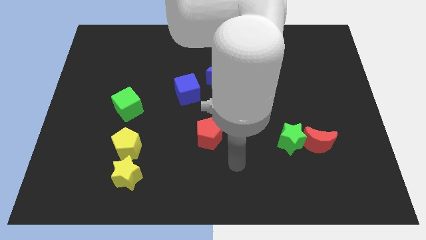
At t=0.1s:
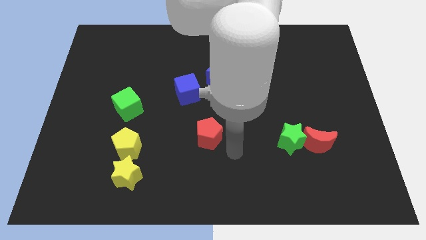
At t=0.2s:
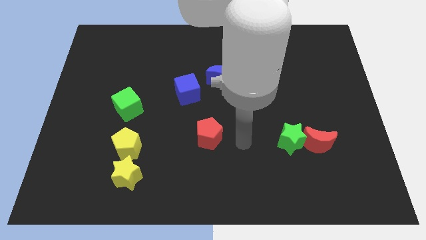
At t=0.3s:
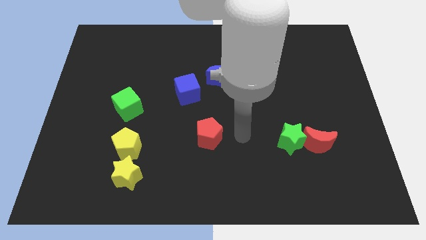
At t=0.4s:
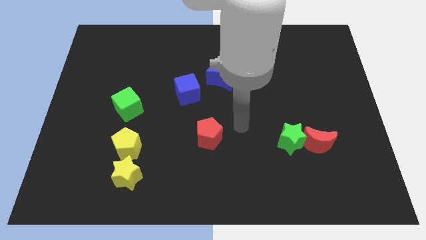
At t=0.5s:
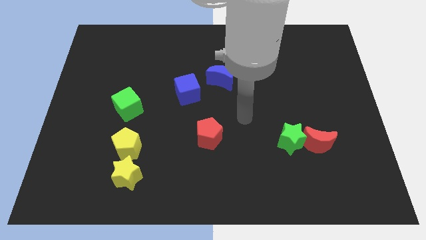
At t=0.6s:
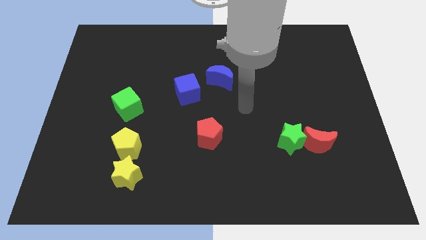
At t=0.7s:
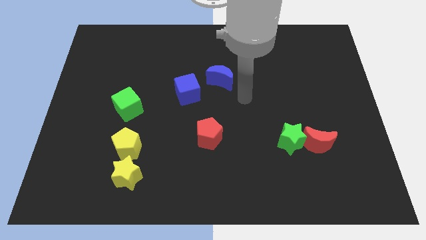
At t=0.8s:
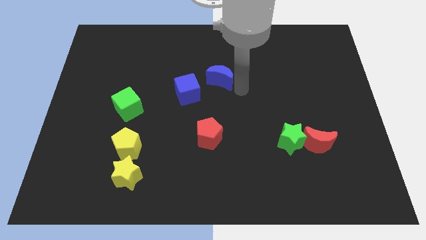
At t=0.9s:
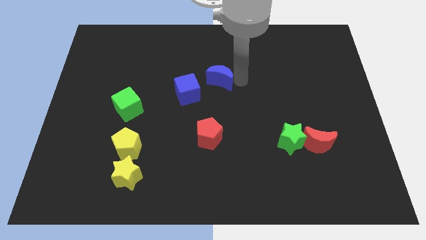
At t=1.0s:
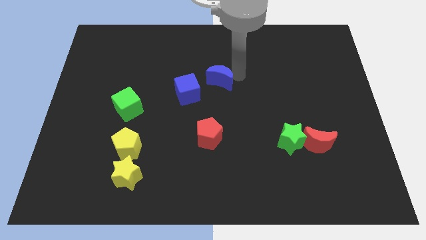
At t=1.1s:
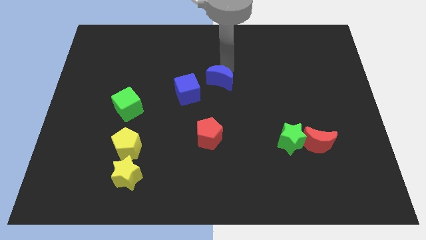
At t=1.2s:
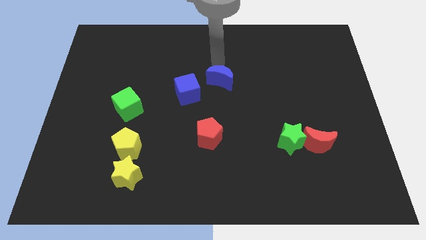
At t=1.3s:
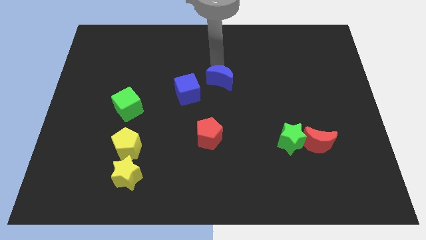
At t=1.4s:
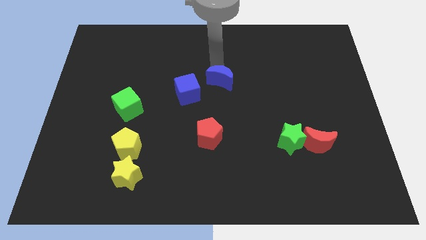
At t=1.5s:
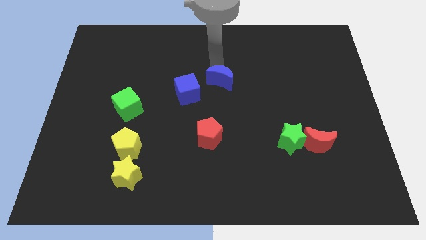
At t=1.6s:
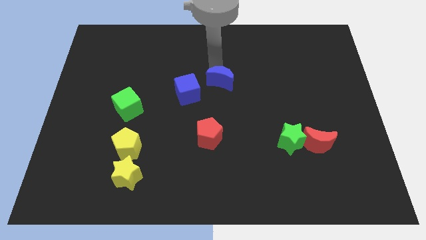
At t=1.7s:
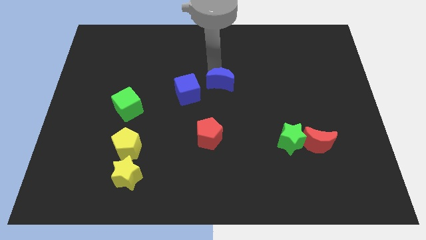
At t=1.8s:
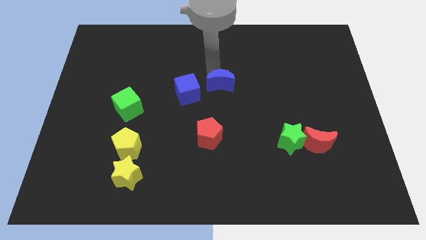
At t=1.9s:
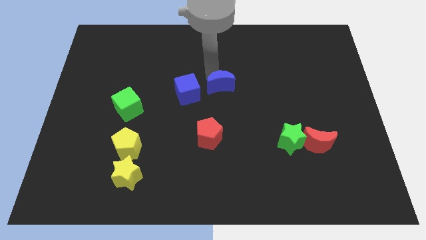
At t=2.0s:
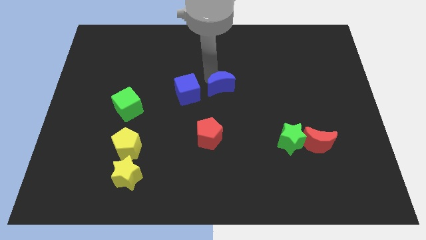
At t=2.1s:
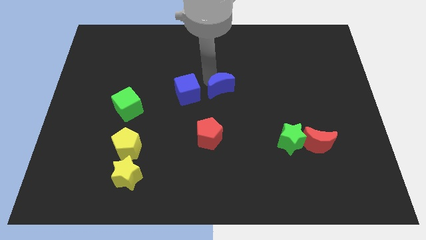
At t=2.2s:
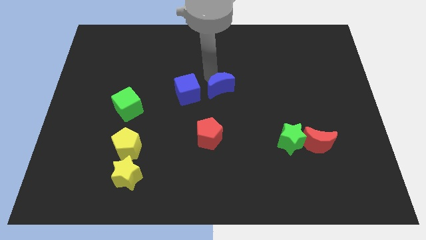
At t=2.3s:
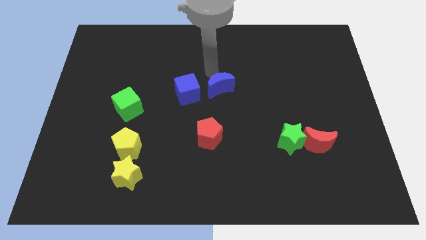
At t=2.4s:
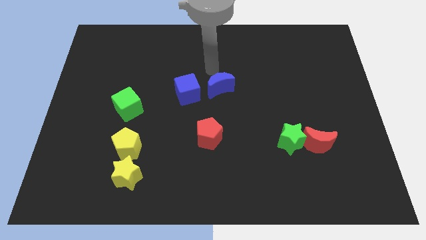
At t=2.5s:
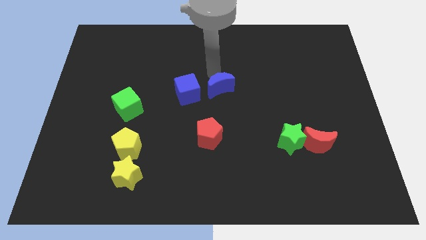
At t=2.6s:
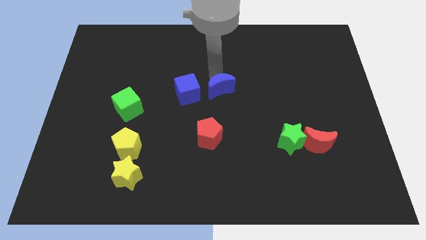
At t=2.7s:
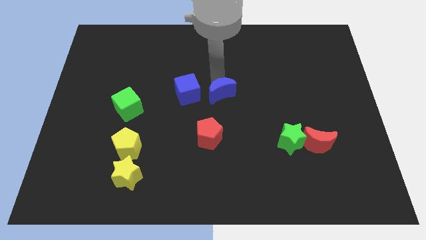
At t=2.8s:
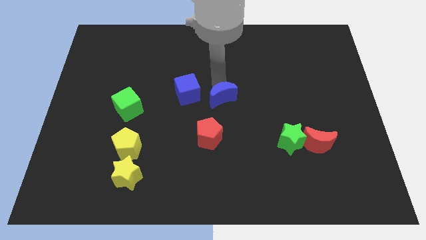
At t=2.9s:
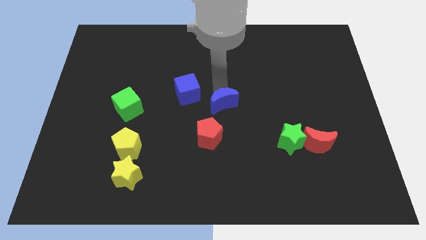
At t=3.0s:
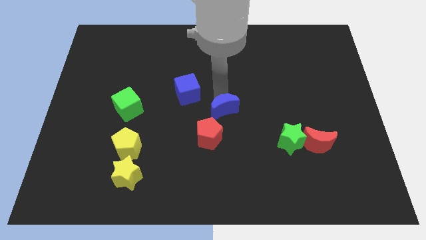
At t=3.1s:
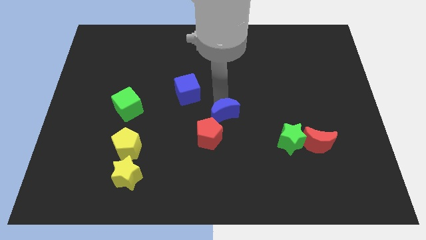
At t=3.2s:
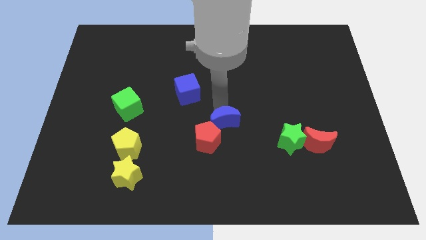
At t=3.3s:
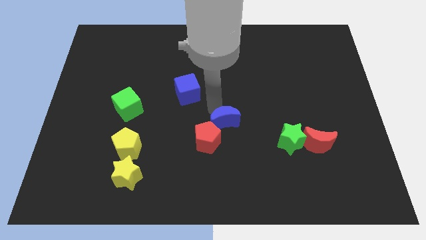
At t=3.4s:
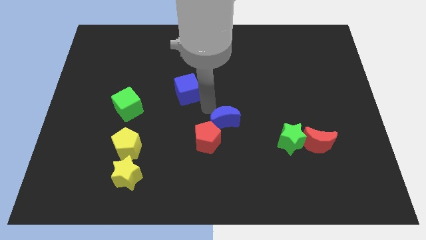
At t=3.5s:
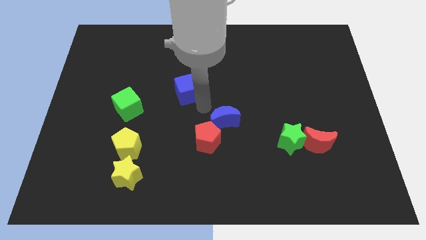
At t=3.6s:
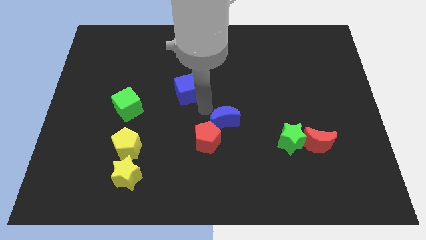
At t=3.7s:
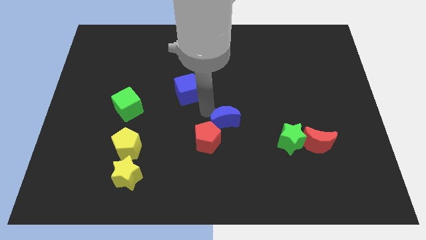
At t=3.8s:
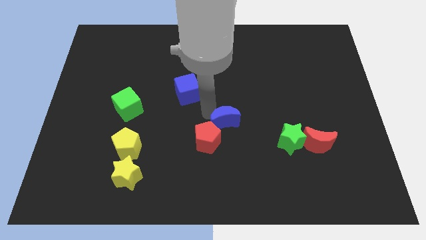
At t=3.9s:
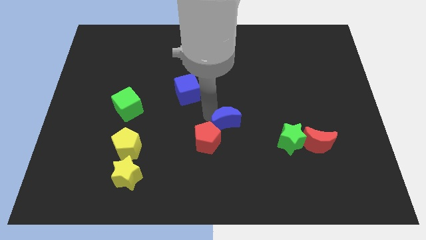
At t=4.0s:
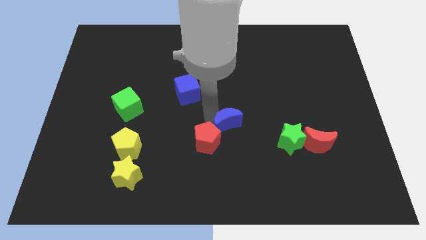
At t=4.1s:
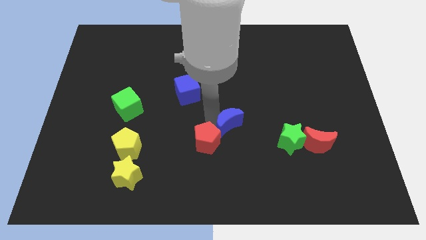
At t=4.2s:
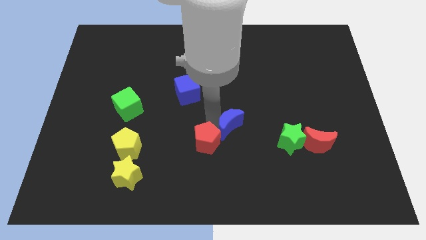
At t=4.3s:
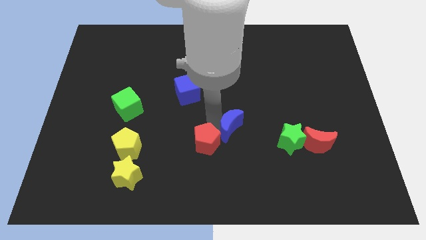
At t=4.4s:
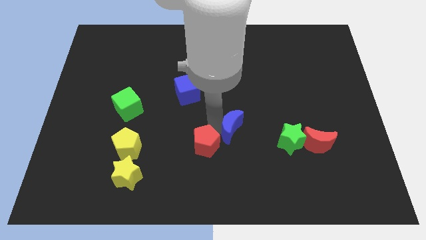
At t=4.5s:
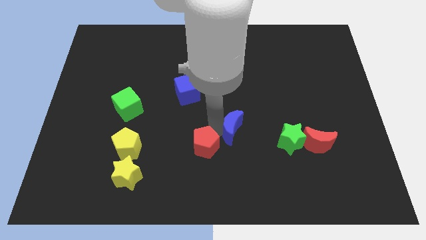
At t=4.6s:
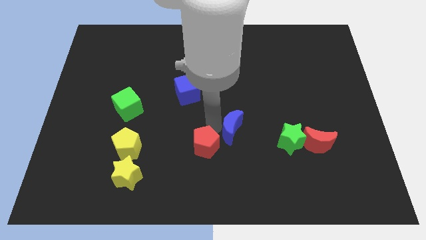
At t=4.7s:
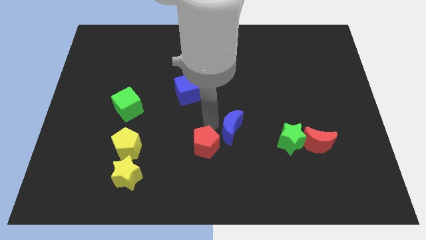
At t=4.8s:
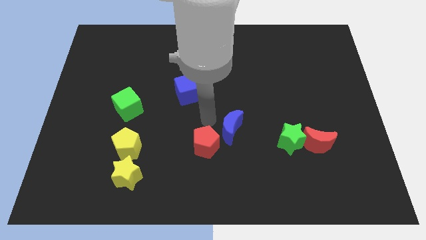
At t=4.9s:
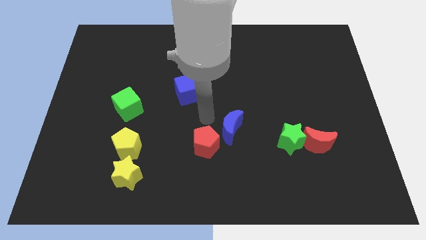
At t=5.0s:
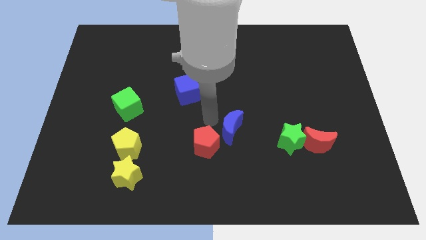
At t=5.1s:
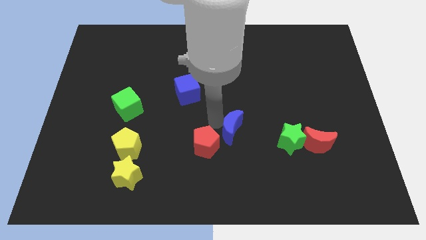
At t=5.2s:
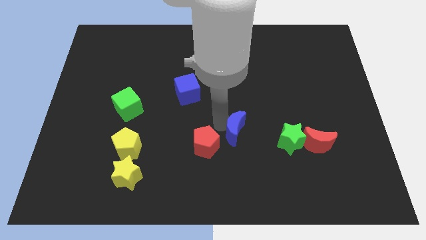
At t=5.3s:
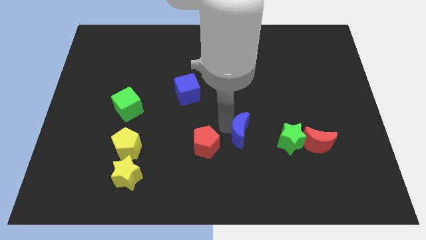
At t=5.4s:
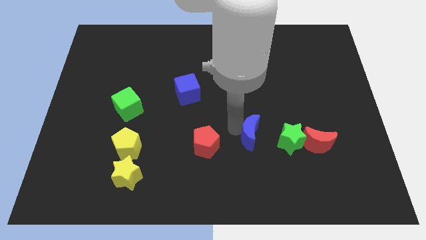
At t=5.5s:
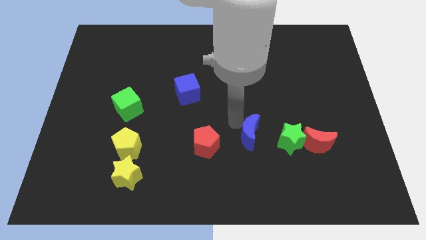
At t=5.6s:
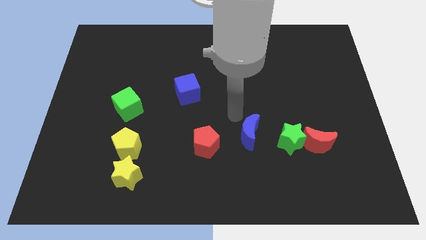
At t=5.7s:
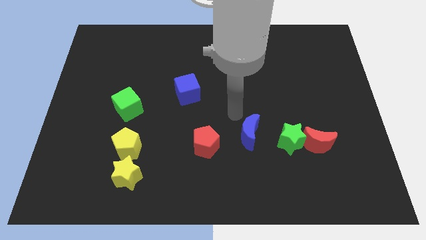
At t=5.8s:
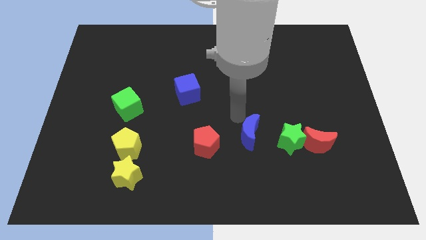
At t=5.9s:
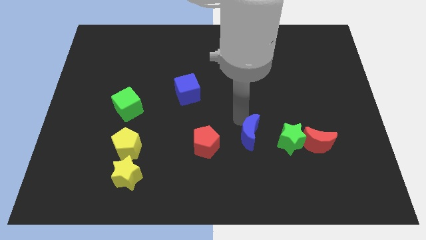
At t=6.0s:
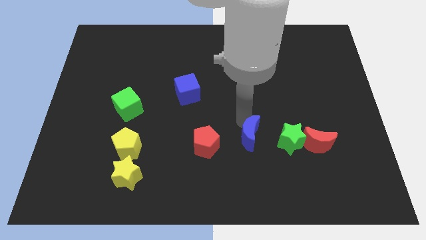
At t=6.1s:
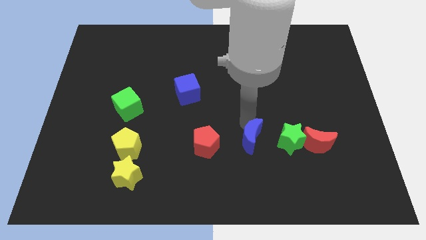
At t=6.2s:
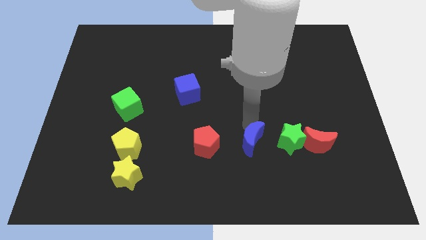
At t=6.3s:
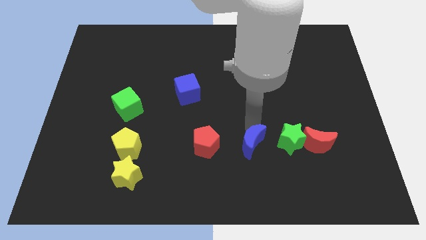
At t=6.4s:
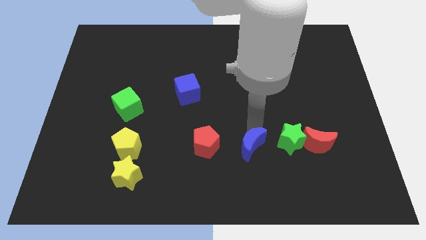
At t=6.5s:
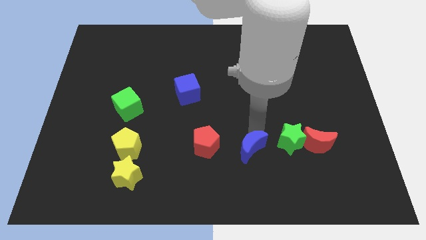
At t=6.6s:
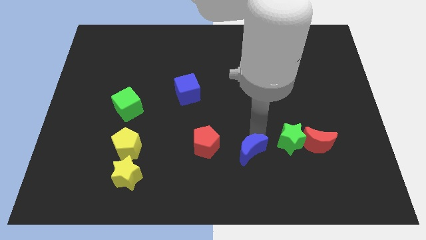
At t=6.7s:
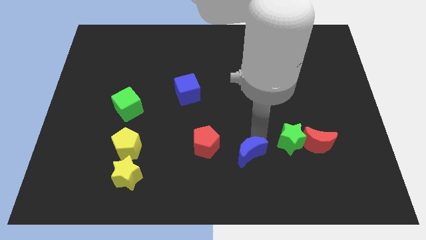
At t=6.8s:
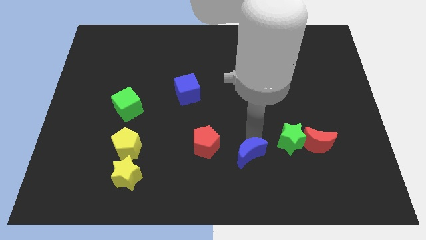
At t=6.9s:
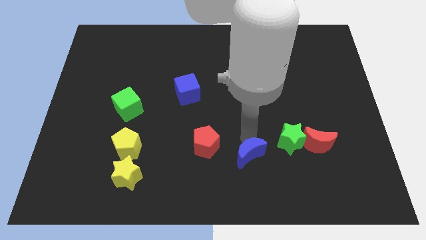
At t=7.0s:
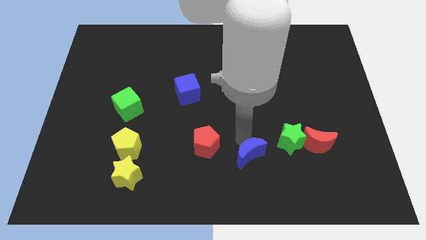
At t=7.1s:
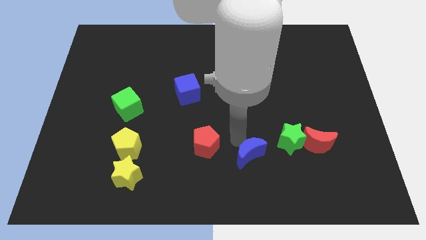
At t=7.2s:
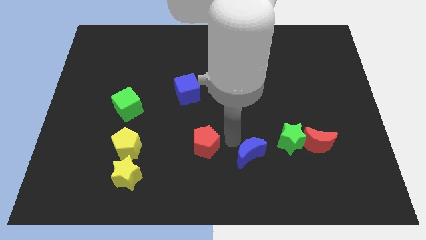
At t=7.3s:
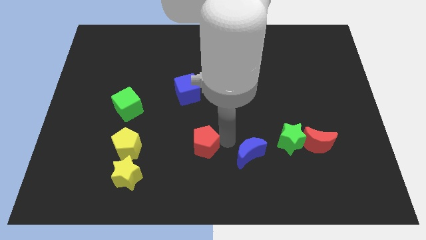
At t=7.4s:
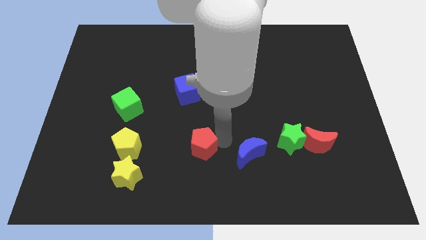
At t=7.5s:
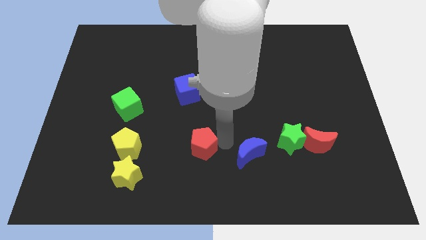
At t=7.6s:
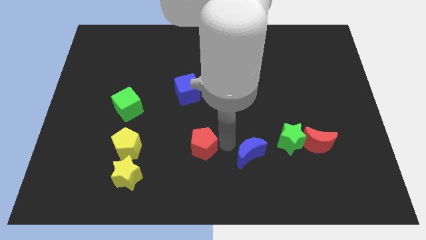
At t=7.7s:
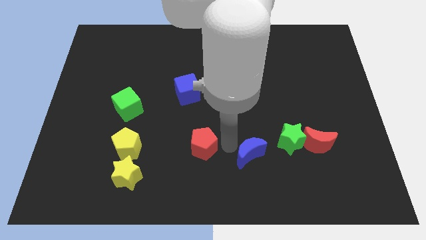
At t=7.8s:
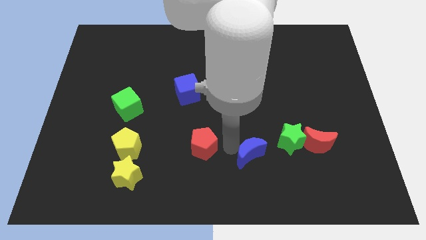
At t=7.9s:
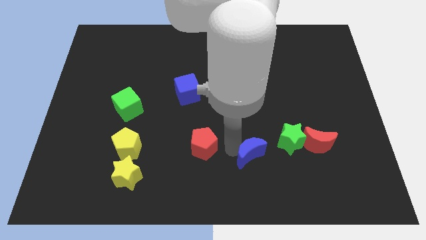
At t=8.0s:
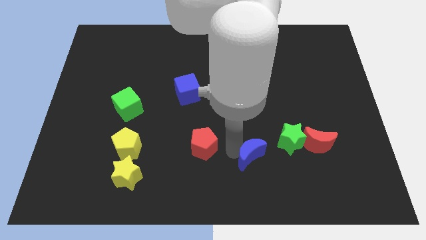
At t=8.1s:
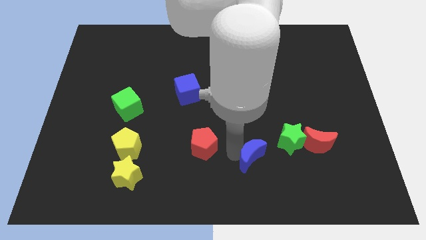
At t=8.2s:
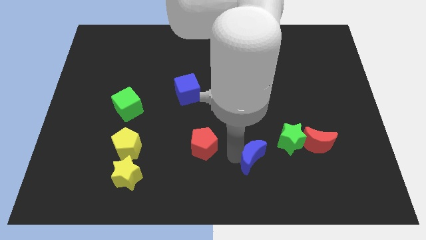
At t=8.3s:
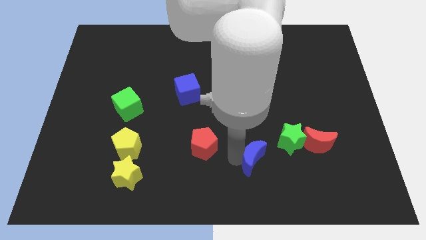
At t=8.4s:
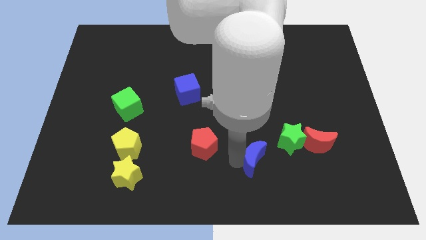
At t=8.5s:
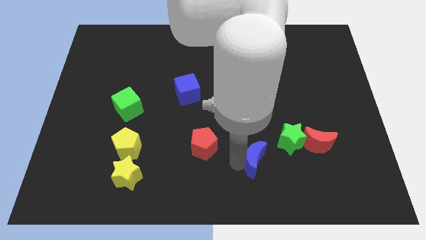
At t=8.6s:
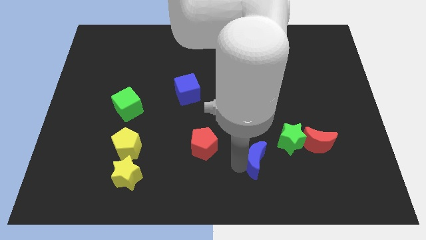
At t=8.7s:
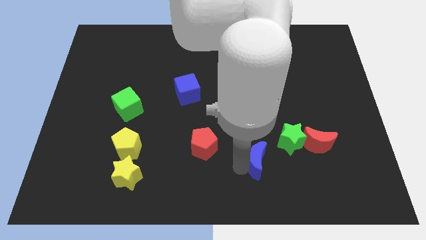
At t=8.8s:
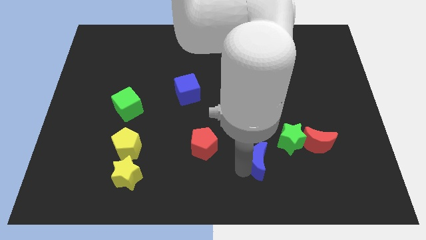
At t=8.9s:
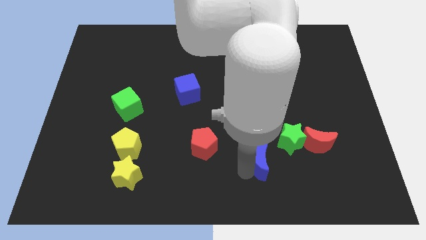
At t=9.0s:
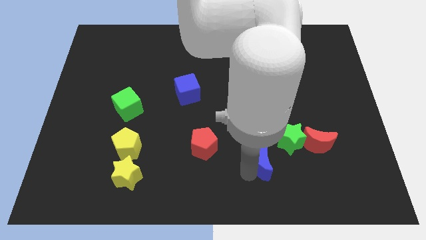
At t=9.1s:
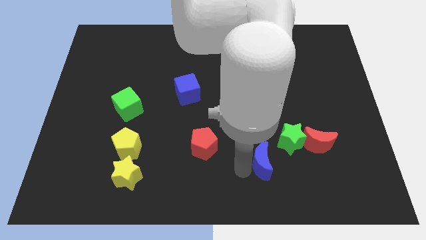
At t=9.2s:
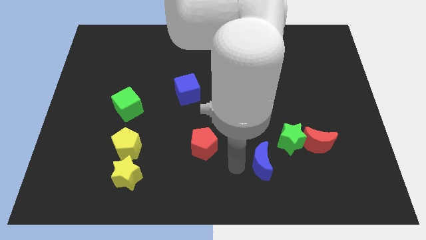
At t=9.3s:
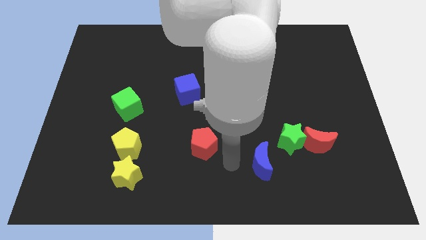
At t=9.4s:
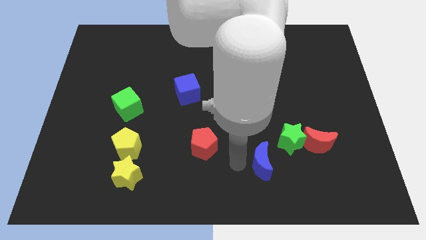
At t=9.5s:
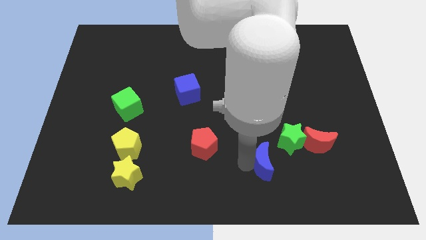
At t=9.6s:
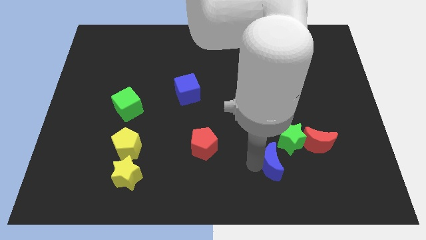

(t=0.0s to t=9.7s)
push the blue moon to the bottom left side of the red moon
